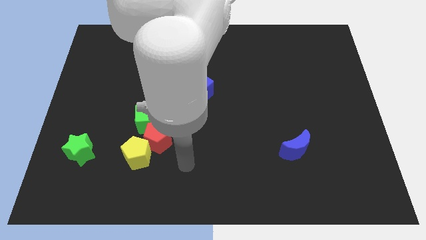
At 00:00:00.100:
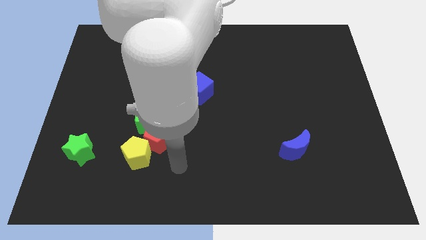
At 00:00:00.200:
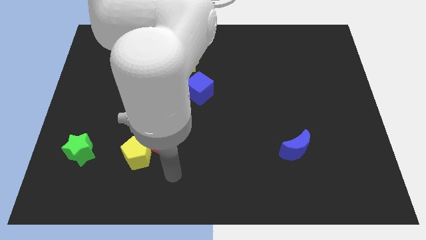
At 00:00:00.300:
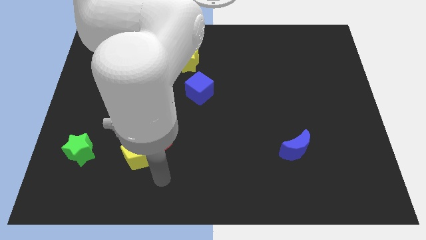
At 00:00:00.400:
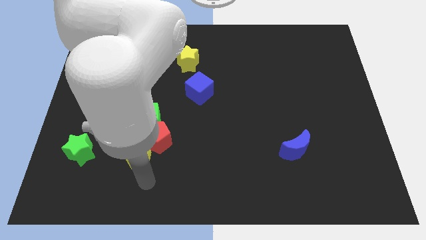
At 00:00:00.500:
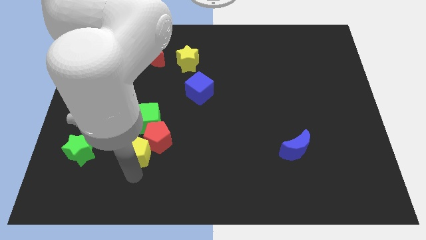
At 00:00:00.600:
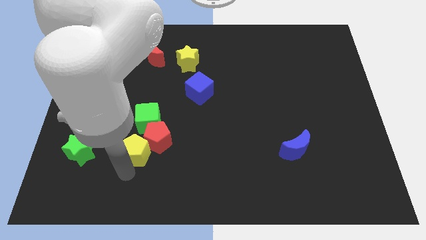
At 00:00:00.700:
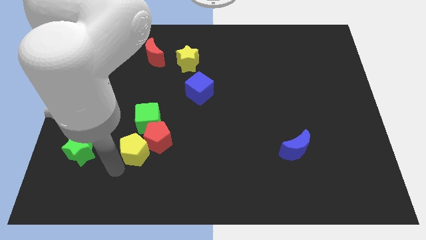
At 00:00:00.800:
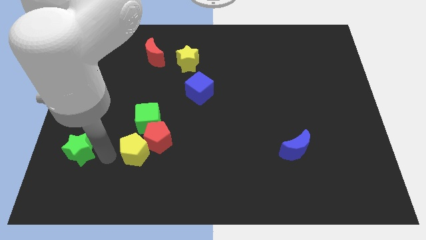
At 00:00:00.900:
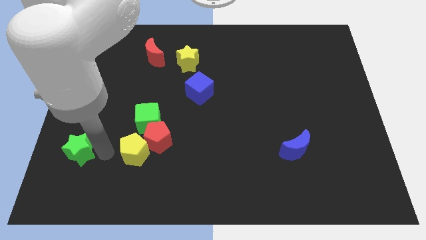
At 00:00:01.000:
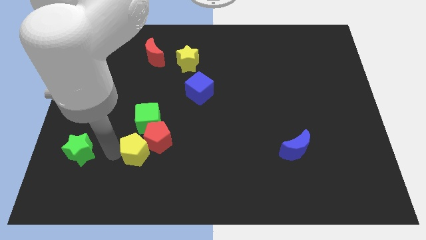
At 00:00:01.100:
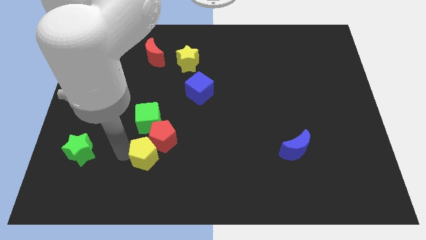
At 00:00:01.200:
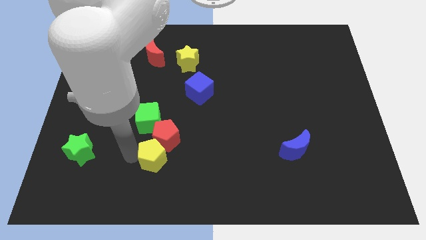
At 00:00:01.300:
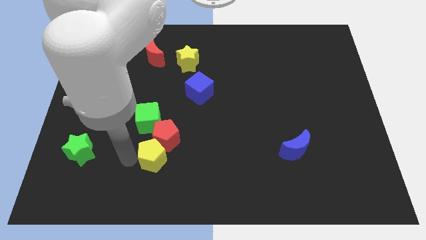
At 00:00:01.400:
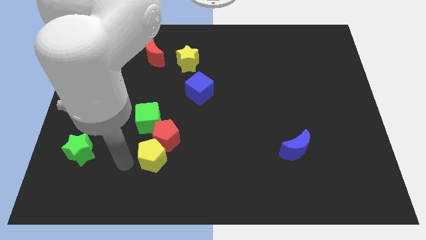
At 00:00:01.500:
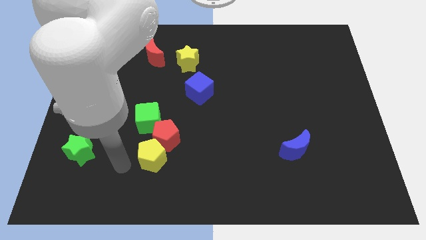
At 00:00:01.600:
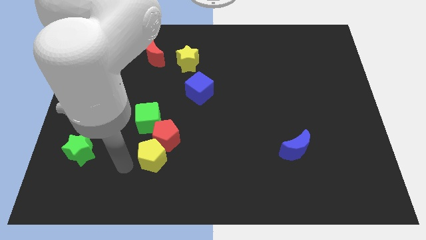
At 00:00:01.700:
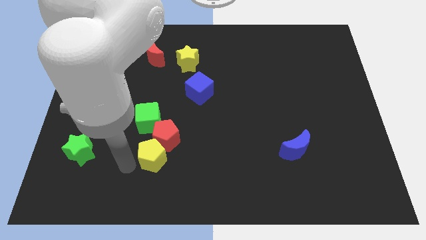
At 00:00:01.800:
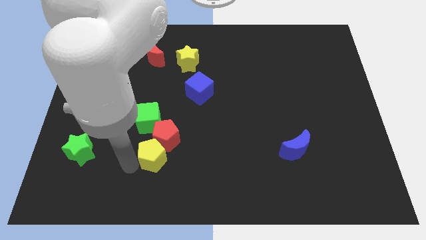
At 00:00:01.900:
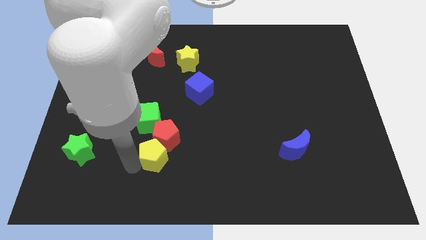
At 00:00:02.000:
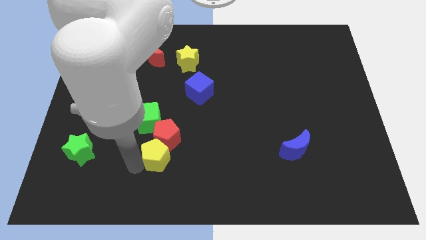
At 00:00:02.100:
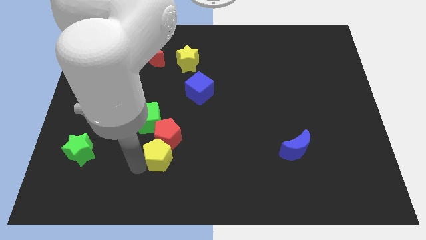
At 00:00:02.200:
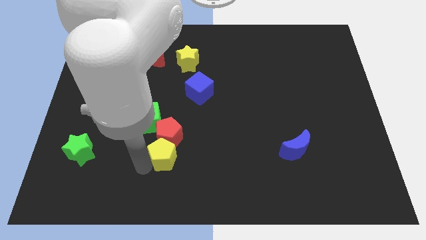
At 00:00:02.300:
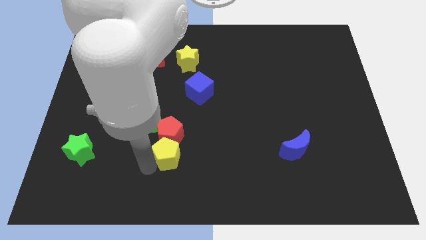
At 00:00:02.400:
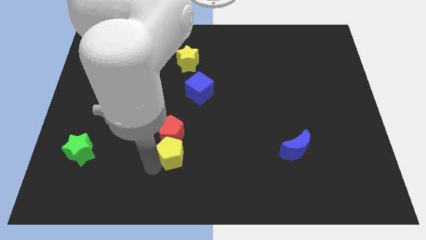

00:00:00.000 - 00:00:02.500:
move the yellow pentagon to the right a bit

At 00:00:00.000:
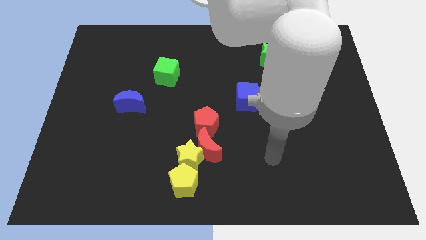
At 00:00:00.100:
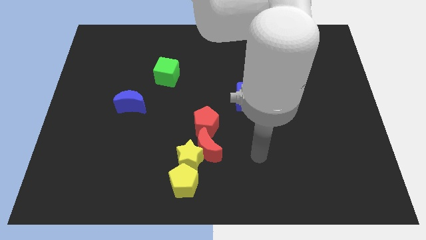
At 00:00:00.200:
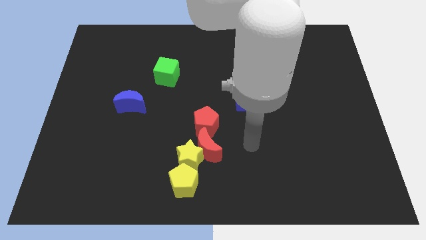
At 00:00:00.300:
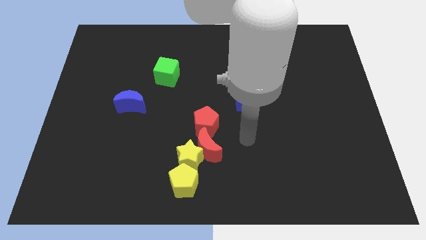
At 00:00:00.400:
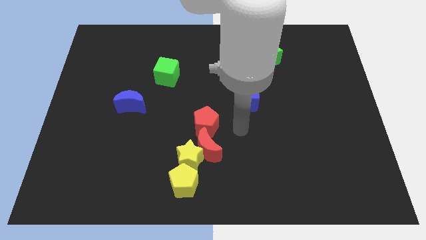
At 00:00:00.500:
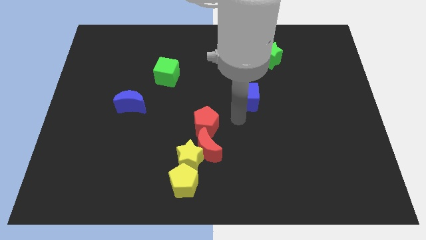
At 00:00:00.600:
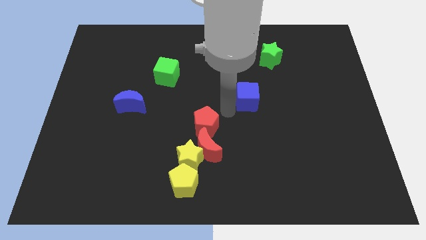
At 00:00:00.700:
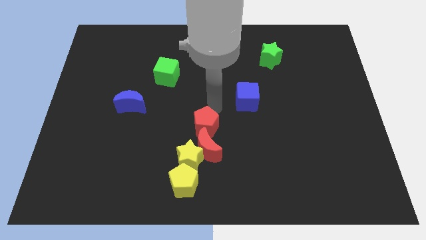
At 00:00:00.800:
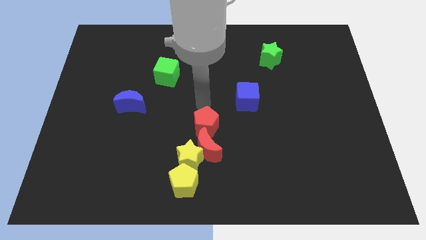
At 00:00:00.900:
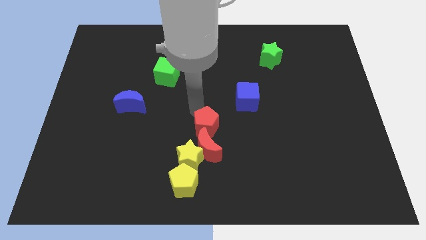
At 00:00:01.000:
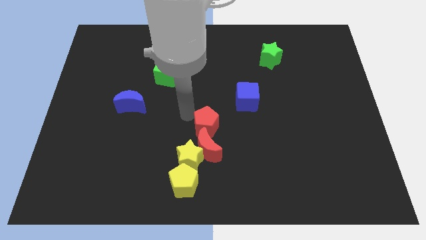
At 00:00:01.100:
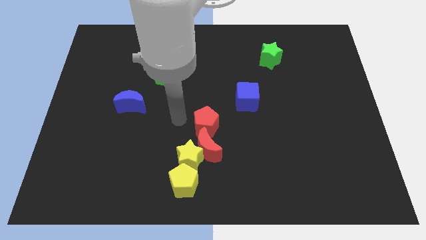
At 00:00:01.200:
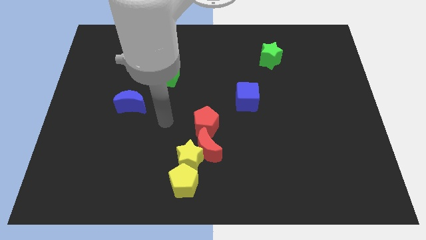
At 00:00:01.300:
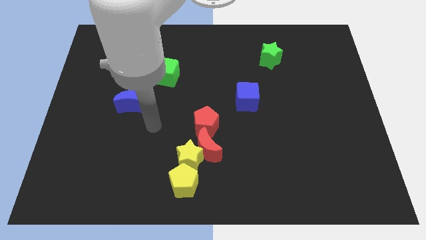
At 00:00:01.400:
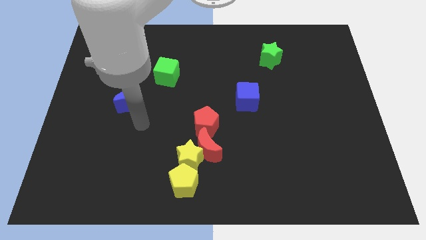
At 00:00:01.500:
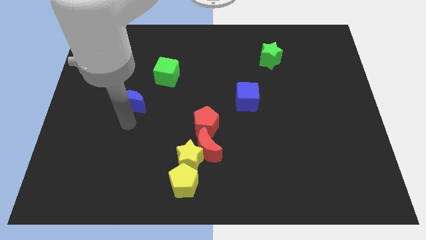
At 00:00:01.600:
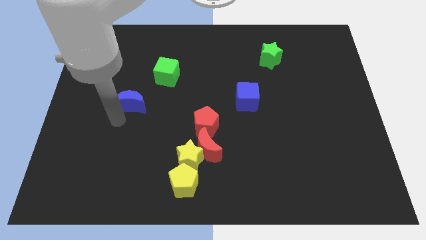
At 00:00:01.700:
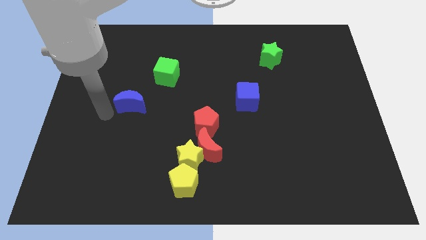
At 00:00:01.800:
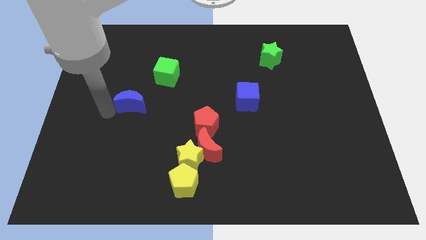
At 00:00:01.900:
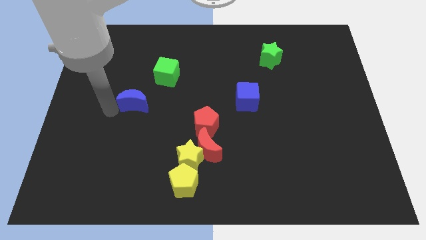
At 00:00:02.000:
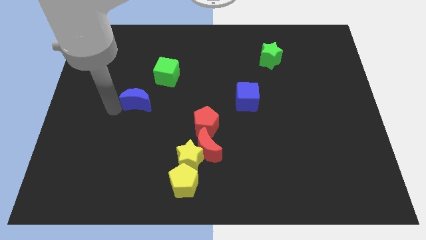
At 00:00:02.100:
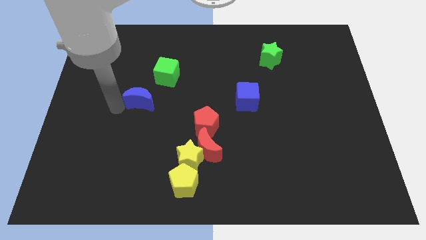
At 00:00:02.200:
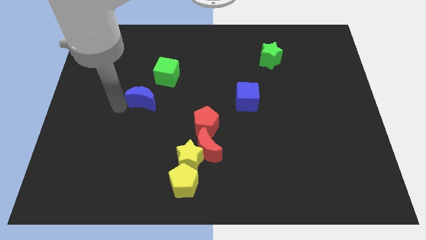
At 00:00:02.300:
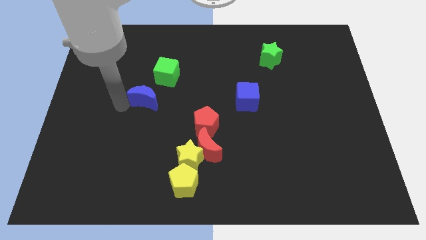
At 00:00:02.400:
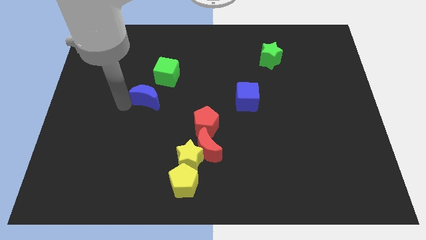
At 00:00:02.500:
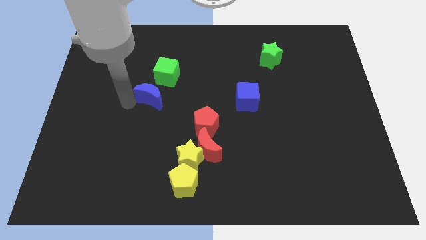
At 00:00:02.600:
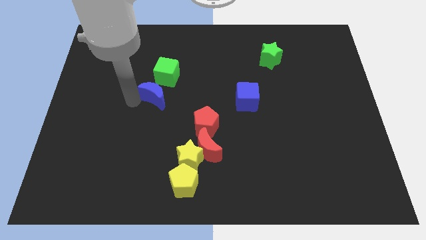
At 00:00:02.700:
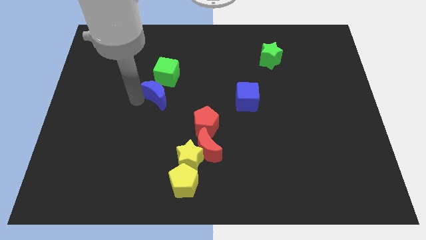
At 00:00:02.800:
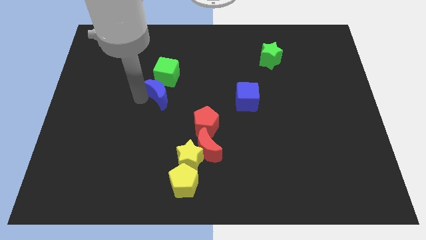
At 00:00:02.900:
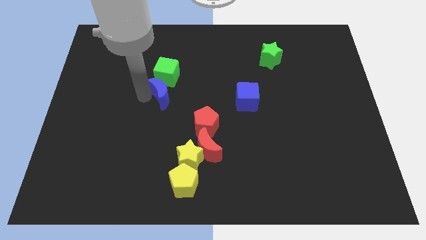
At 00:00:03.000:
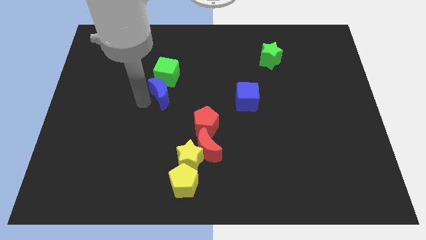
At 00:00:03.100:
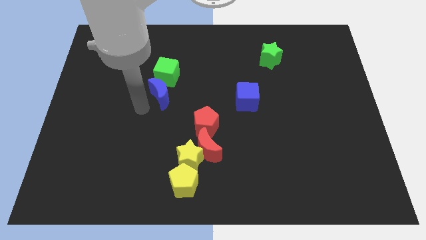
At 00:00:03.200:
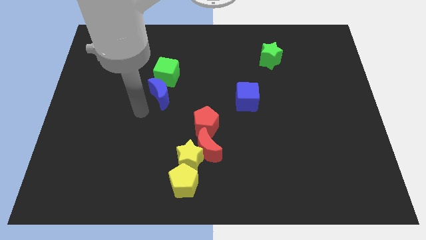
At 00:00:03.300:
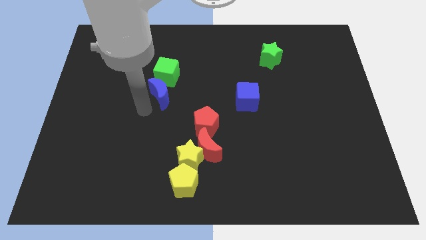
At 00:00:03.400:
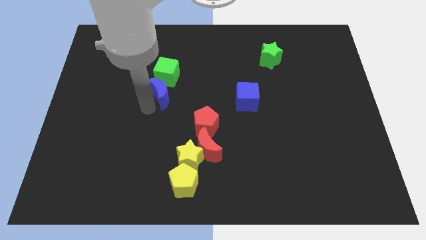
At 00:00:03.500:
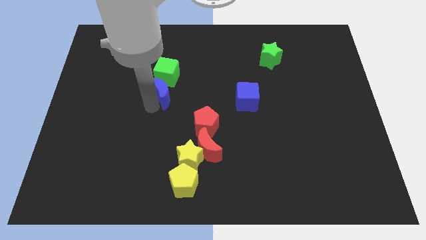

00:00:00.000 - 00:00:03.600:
move the blue moon somewhat up and then to the right

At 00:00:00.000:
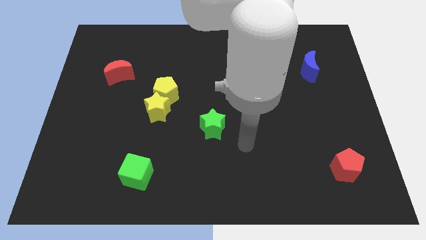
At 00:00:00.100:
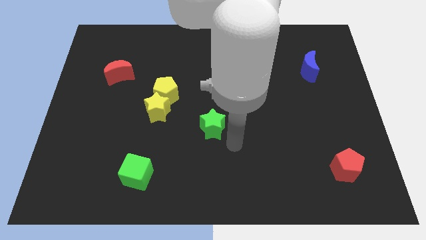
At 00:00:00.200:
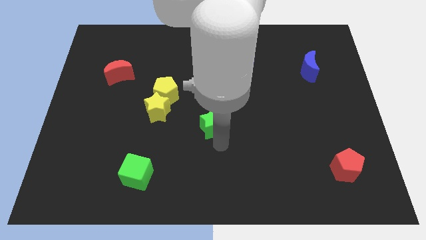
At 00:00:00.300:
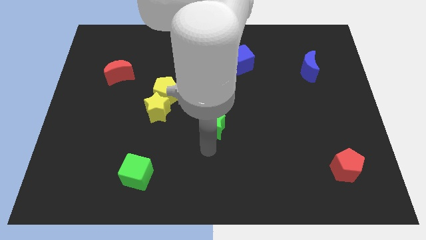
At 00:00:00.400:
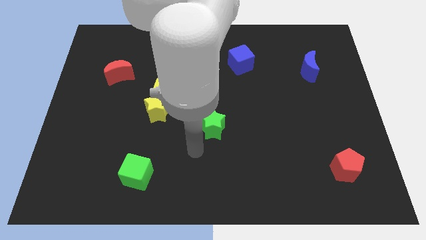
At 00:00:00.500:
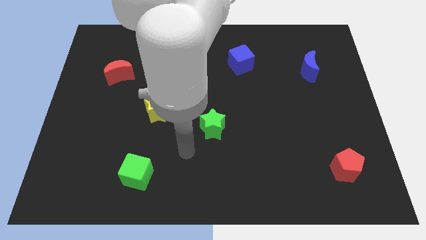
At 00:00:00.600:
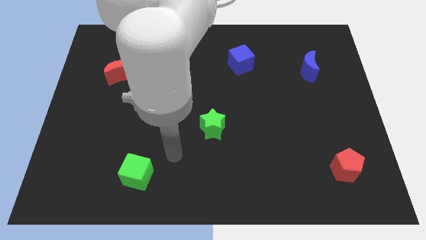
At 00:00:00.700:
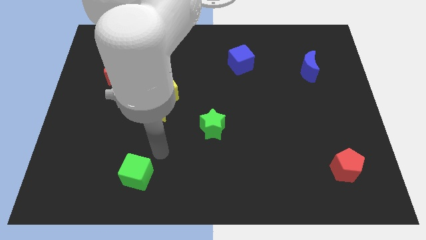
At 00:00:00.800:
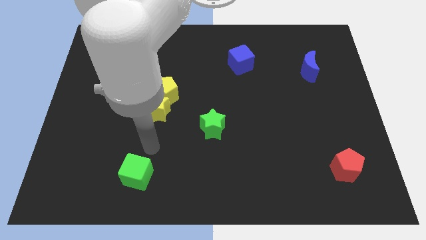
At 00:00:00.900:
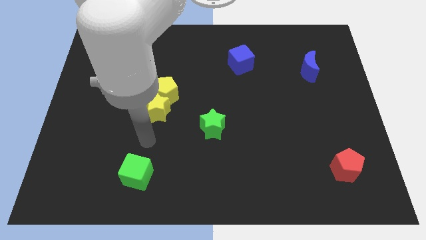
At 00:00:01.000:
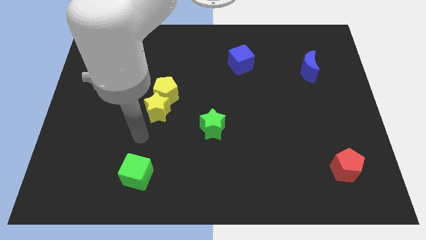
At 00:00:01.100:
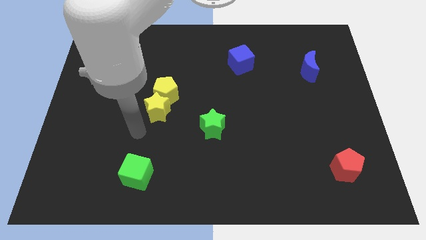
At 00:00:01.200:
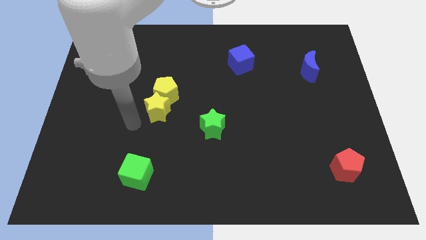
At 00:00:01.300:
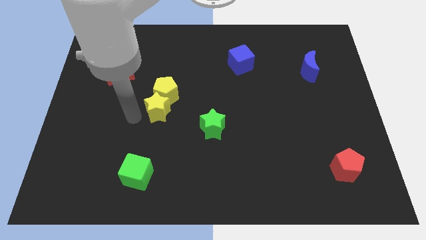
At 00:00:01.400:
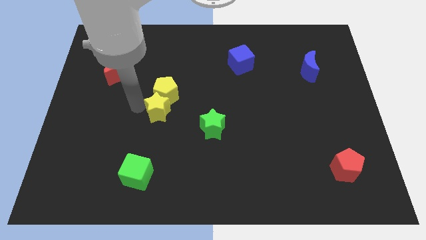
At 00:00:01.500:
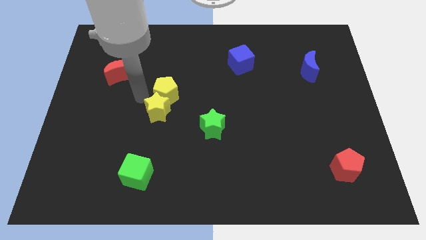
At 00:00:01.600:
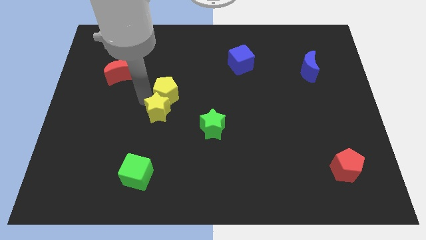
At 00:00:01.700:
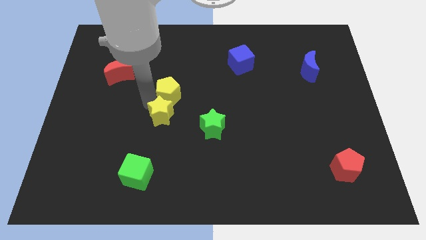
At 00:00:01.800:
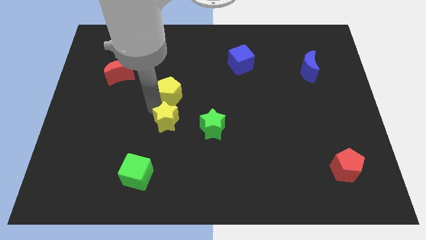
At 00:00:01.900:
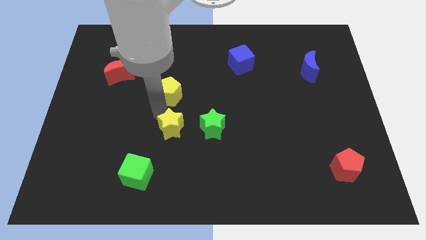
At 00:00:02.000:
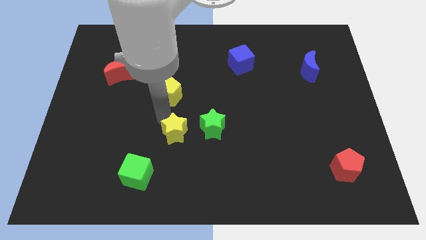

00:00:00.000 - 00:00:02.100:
slightly slide the yellow star downwards and to the right
